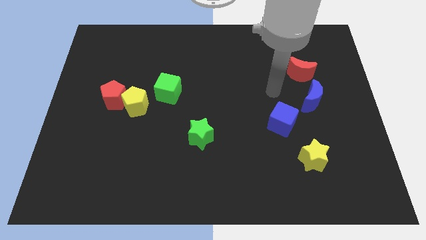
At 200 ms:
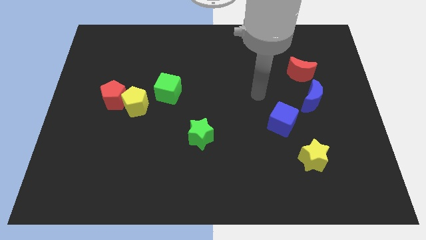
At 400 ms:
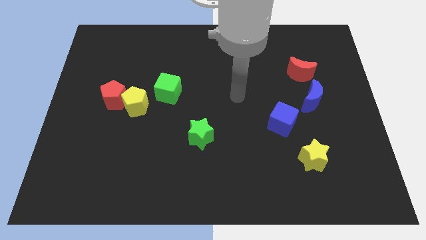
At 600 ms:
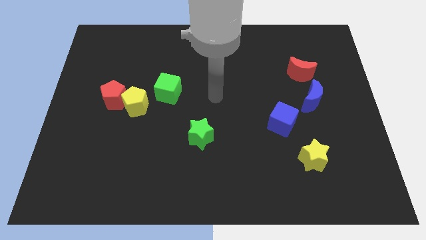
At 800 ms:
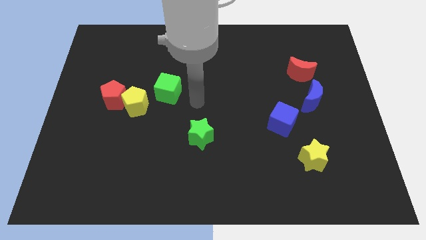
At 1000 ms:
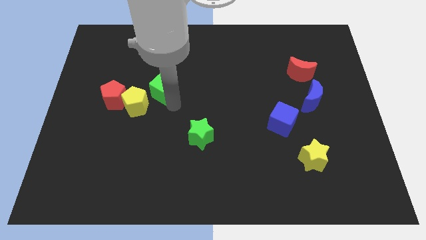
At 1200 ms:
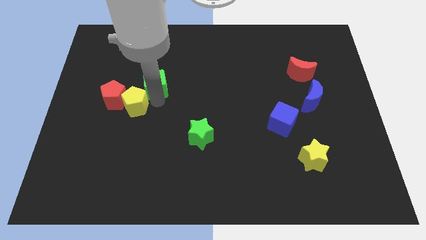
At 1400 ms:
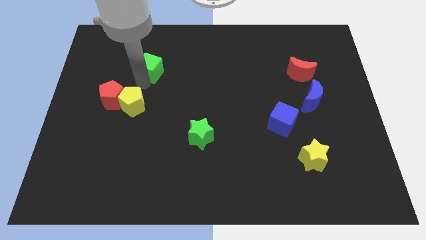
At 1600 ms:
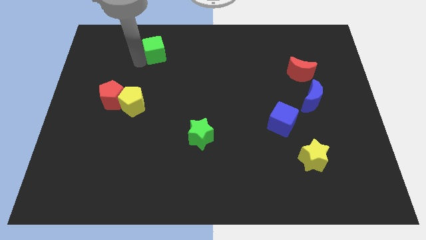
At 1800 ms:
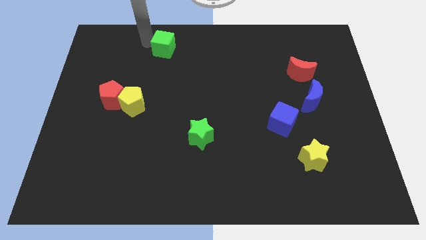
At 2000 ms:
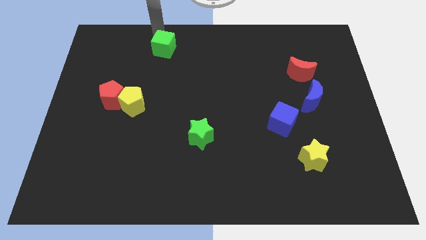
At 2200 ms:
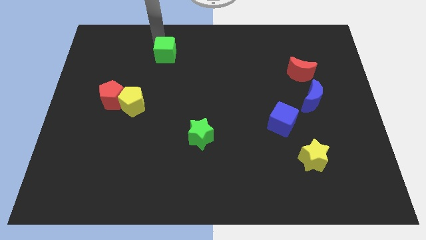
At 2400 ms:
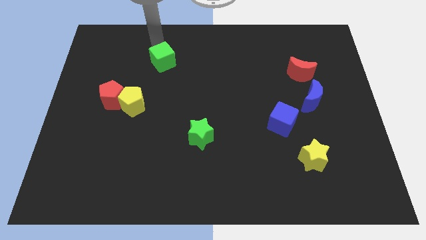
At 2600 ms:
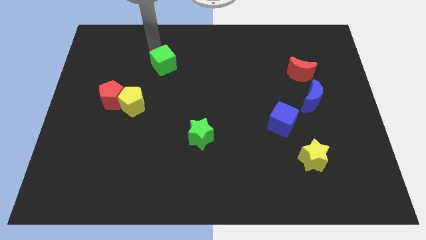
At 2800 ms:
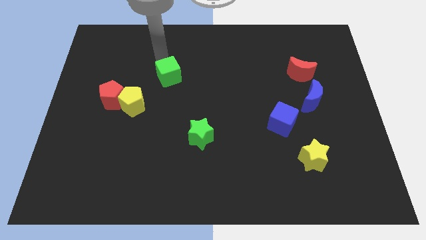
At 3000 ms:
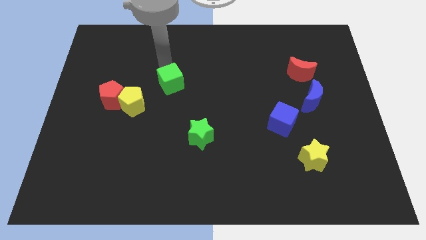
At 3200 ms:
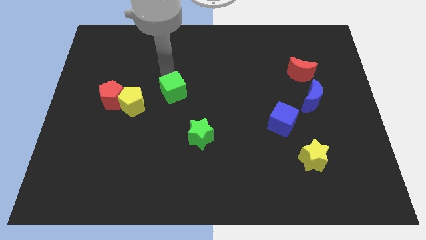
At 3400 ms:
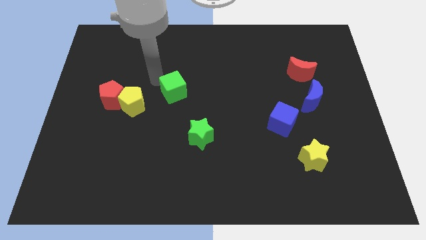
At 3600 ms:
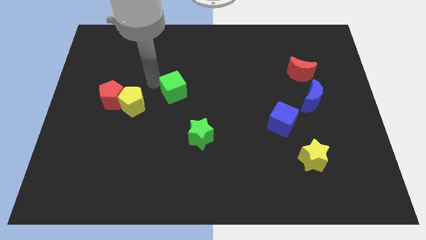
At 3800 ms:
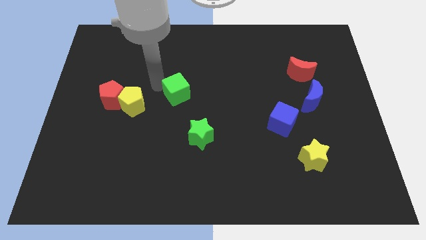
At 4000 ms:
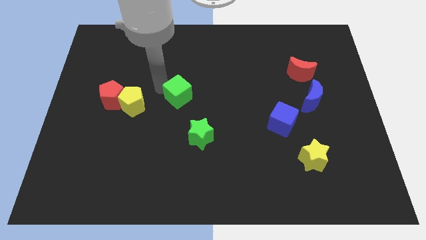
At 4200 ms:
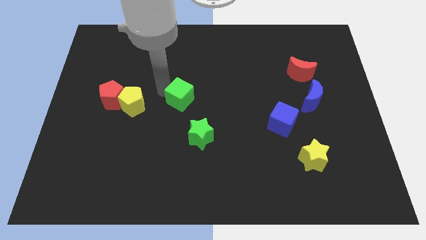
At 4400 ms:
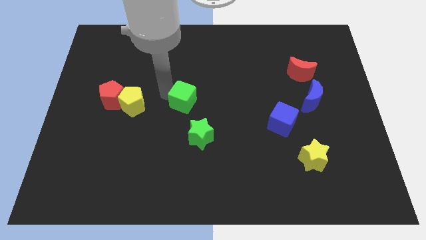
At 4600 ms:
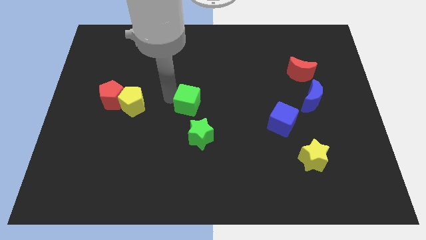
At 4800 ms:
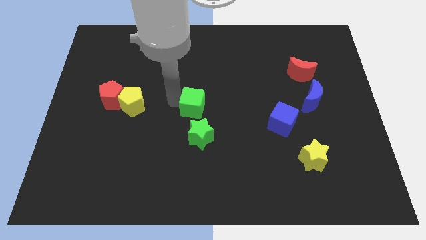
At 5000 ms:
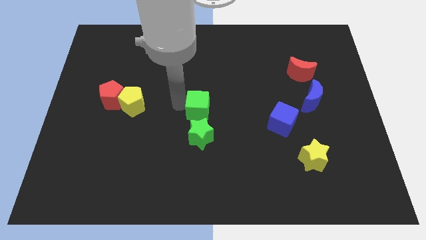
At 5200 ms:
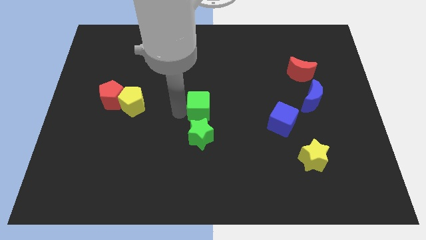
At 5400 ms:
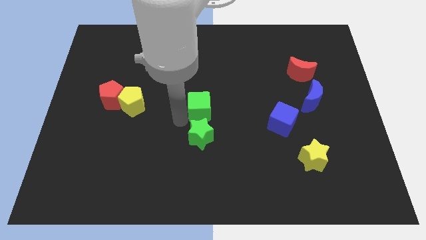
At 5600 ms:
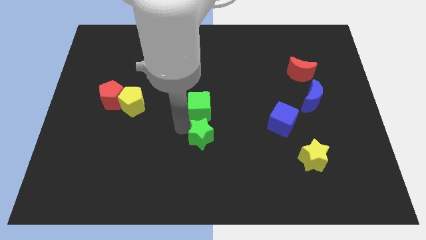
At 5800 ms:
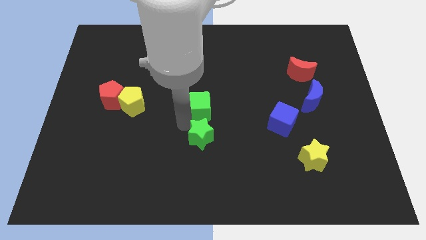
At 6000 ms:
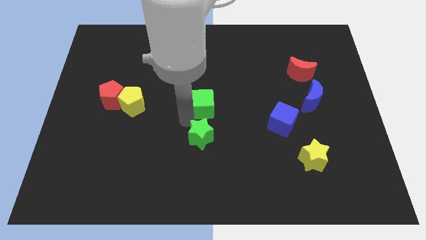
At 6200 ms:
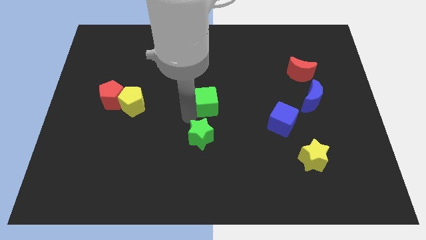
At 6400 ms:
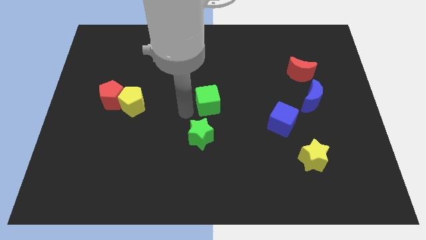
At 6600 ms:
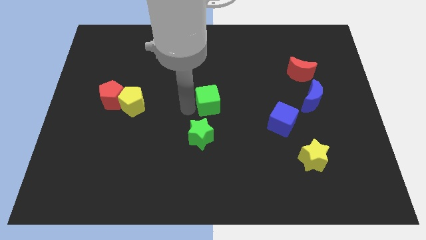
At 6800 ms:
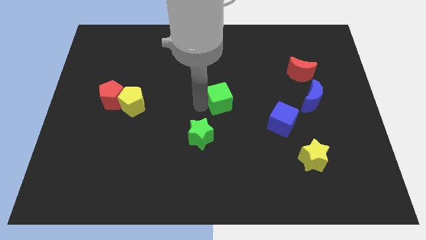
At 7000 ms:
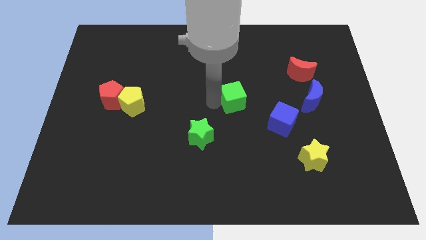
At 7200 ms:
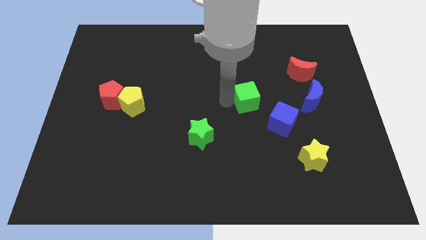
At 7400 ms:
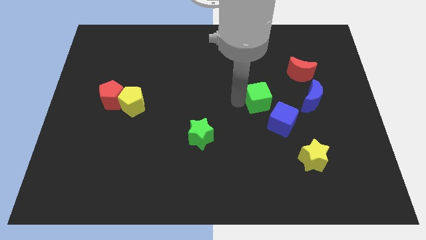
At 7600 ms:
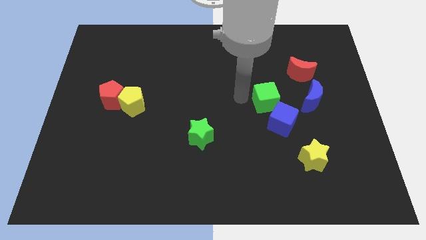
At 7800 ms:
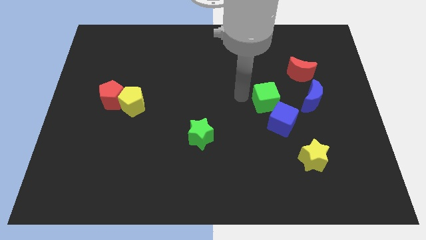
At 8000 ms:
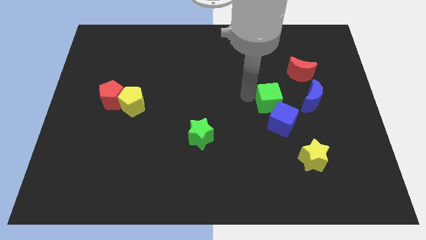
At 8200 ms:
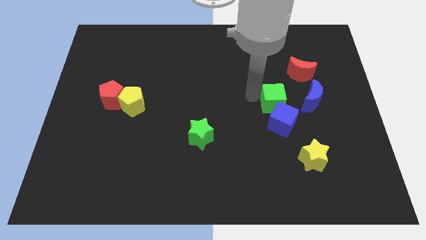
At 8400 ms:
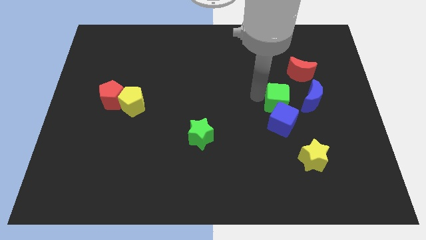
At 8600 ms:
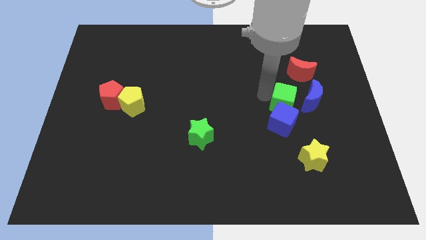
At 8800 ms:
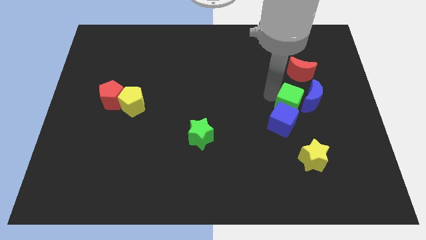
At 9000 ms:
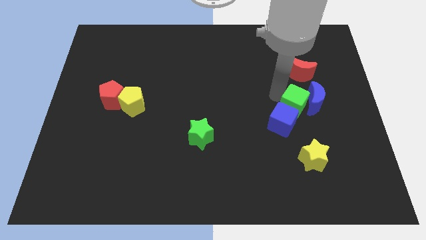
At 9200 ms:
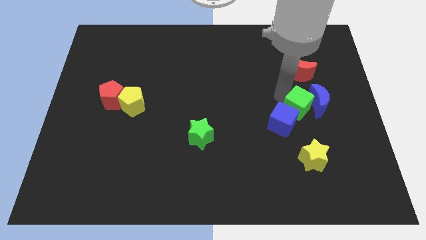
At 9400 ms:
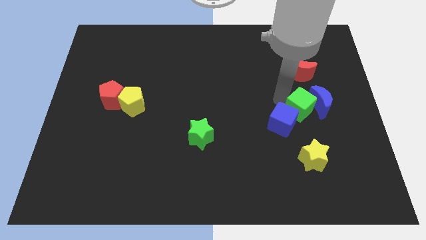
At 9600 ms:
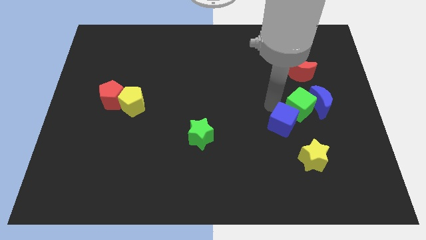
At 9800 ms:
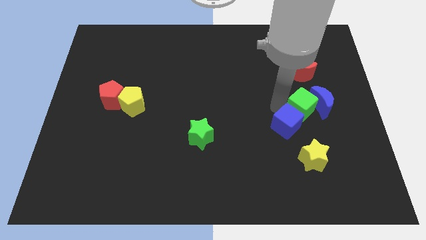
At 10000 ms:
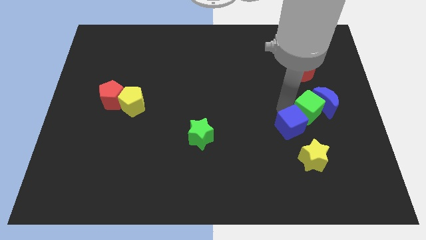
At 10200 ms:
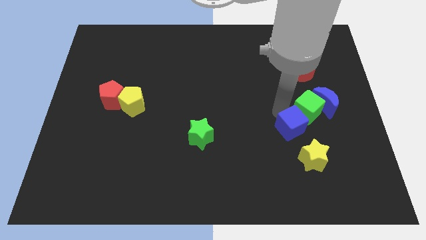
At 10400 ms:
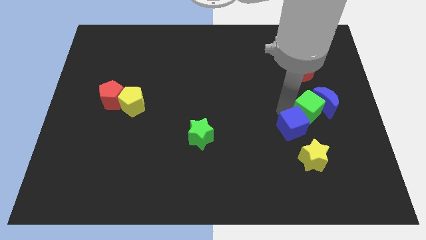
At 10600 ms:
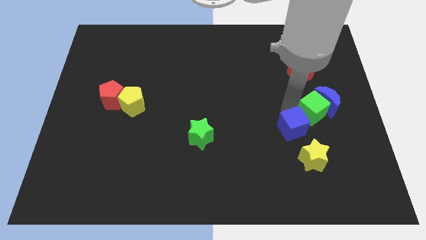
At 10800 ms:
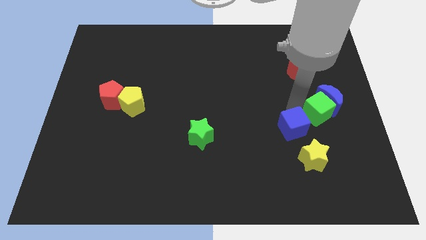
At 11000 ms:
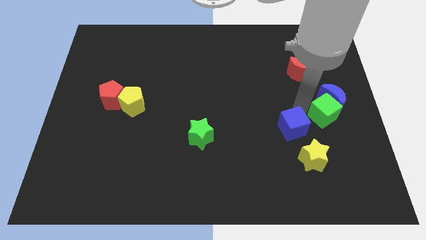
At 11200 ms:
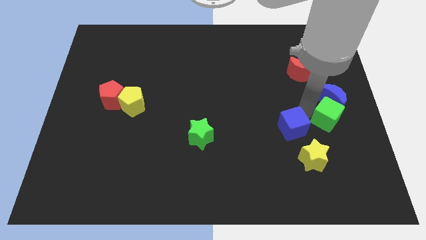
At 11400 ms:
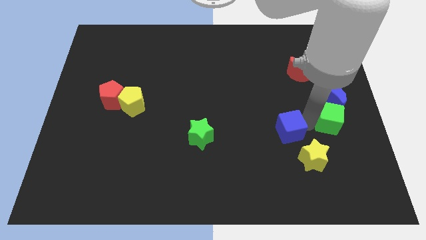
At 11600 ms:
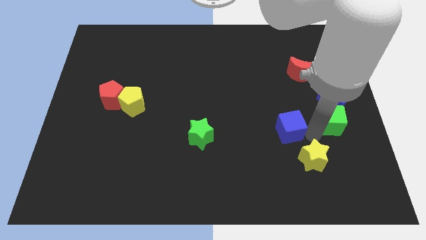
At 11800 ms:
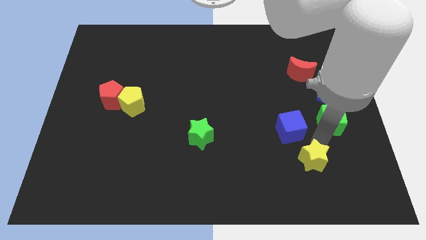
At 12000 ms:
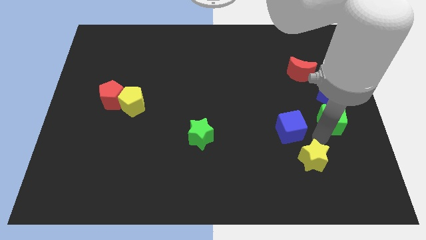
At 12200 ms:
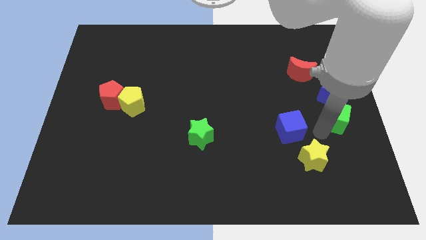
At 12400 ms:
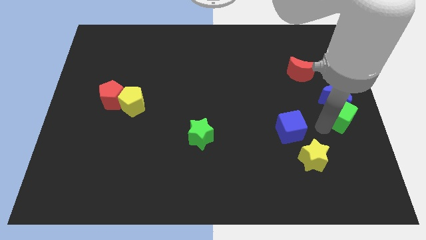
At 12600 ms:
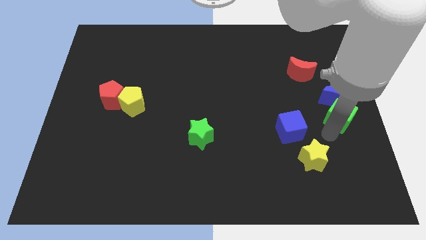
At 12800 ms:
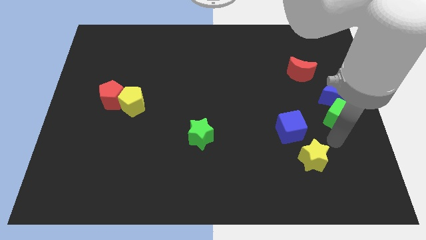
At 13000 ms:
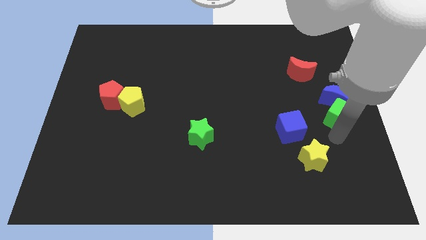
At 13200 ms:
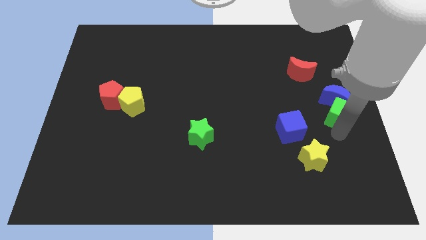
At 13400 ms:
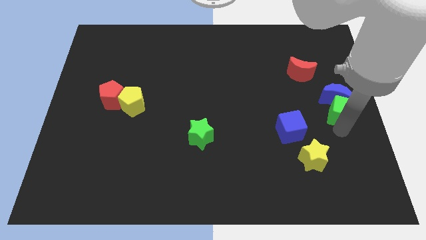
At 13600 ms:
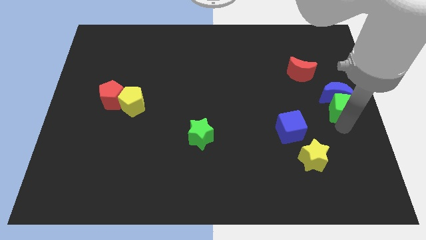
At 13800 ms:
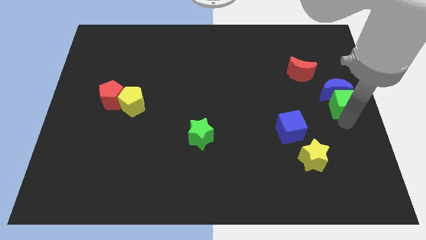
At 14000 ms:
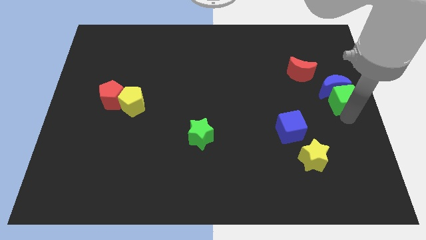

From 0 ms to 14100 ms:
slide the green cube to the bottom right of the red moon

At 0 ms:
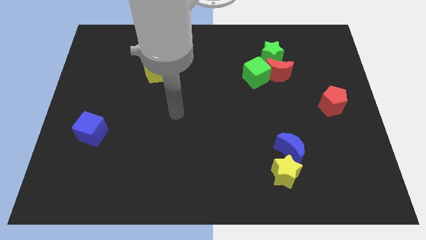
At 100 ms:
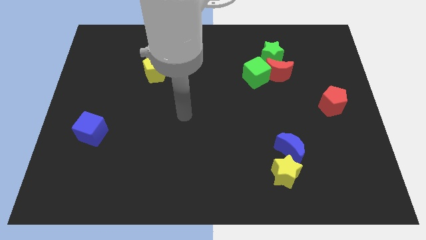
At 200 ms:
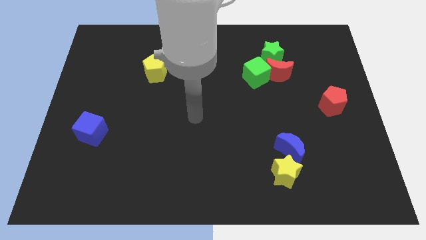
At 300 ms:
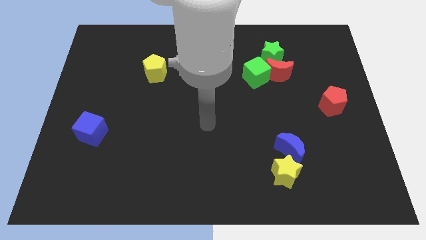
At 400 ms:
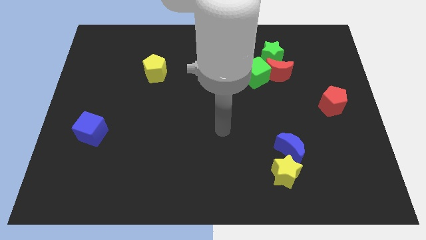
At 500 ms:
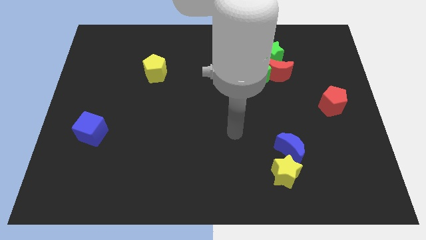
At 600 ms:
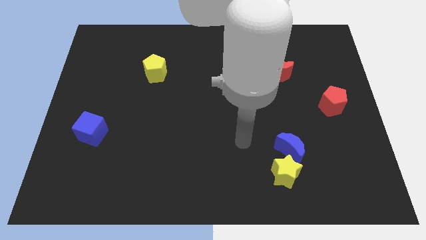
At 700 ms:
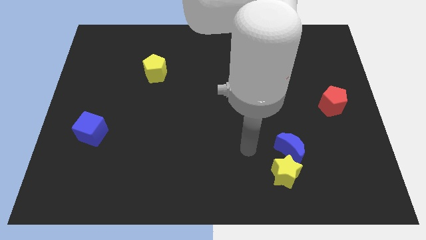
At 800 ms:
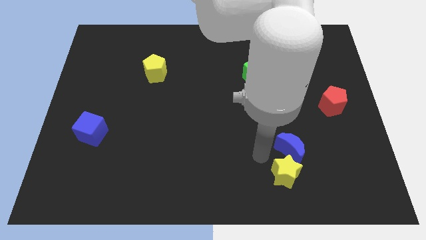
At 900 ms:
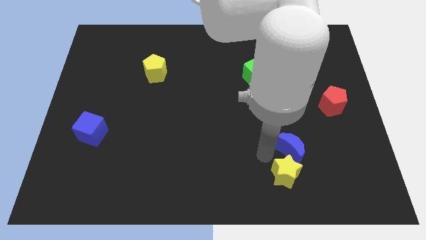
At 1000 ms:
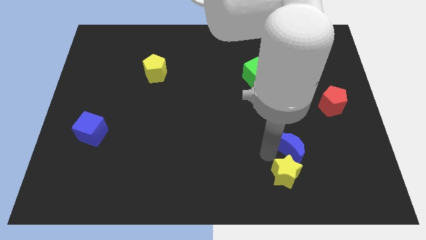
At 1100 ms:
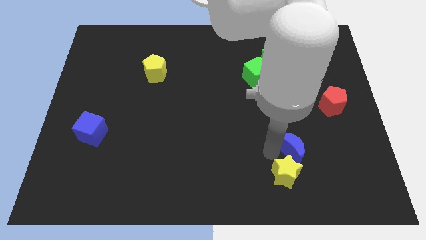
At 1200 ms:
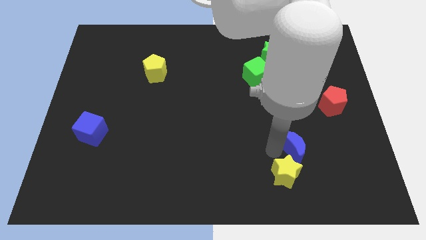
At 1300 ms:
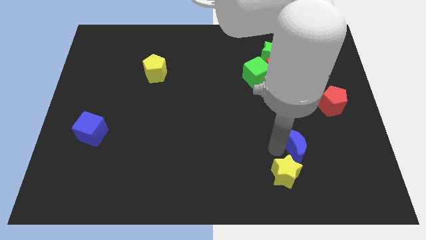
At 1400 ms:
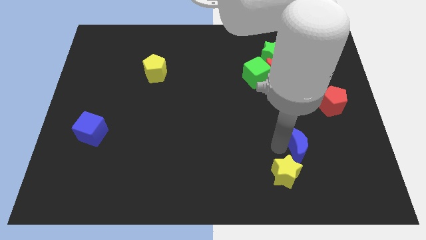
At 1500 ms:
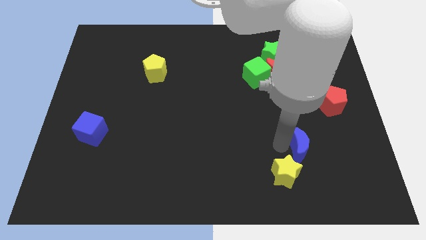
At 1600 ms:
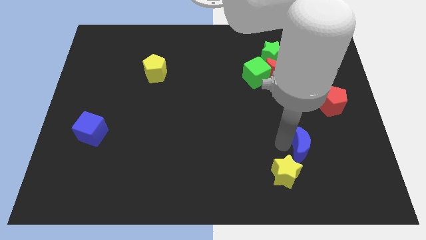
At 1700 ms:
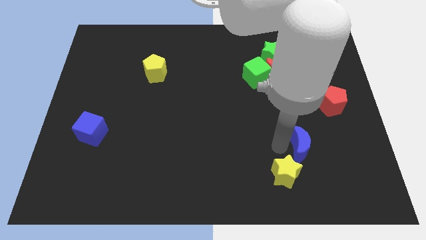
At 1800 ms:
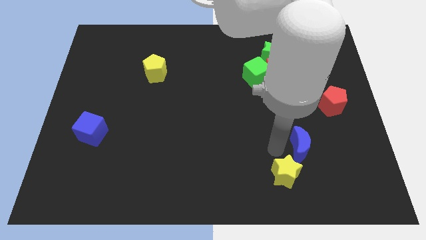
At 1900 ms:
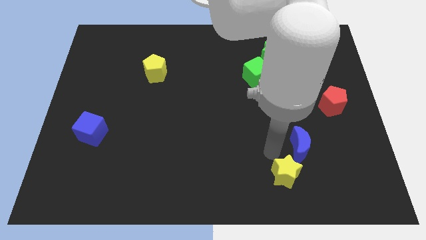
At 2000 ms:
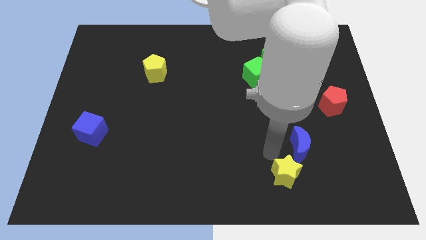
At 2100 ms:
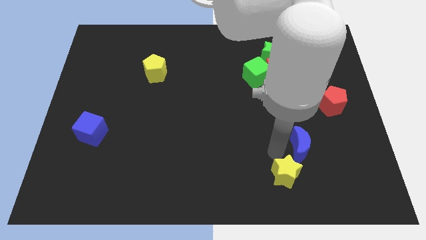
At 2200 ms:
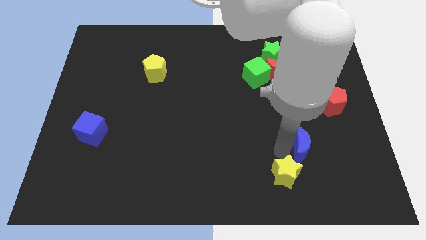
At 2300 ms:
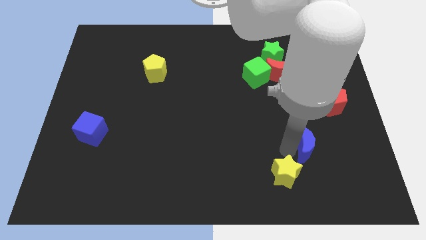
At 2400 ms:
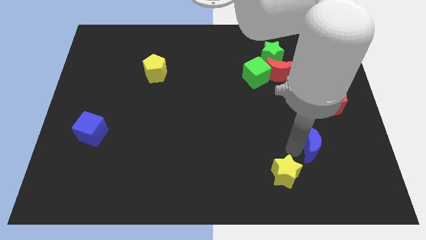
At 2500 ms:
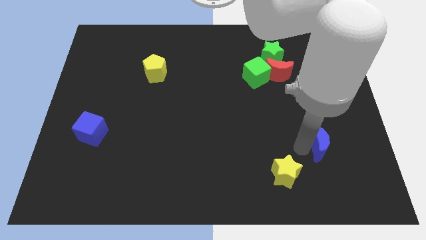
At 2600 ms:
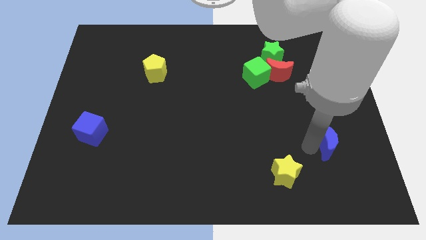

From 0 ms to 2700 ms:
put the blue moon to the bottom side of the red pentagon
